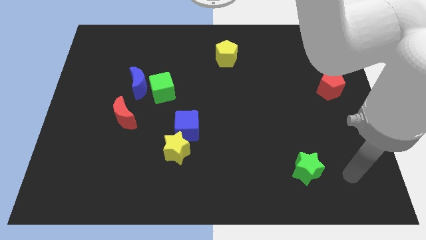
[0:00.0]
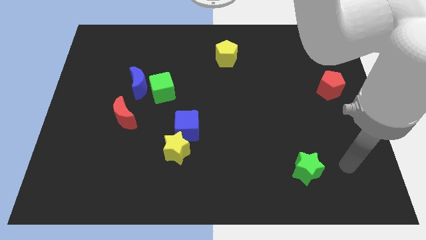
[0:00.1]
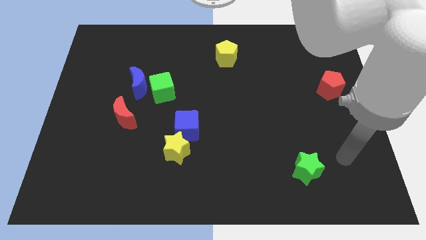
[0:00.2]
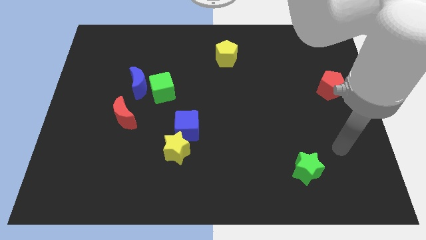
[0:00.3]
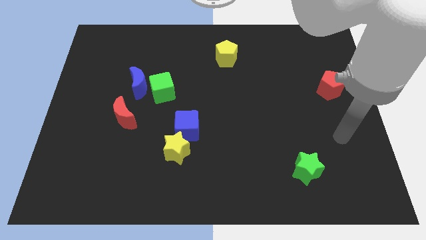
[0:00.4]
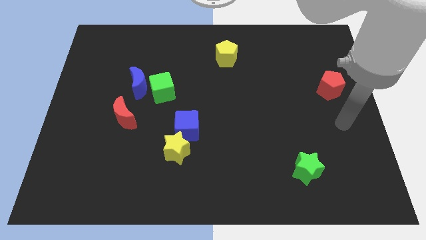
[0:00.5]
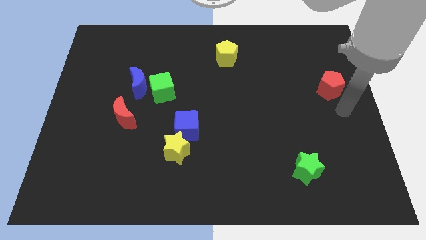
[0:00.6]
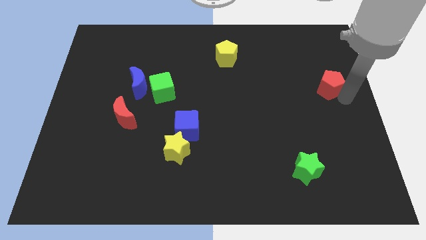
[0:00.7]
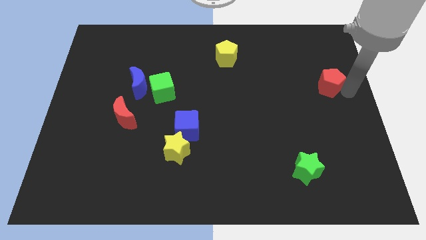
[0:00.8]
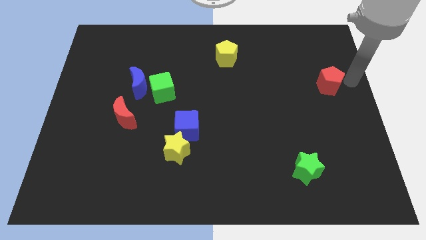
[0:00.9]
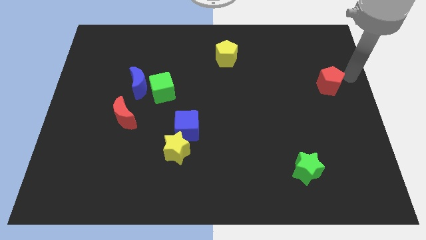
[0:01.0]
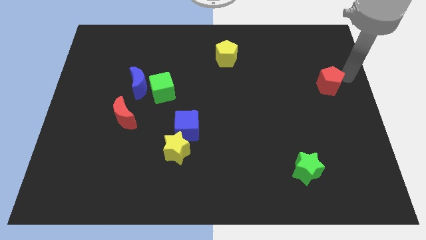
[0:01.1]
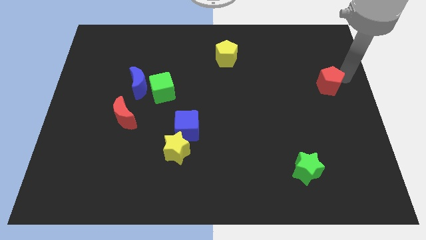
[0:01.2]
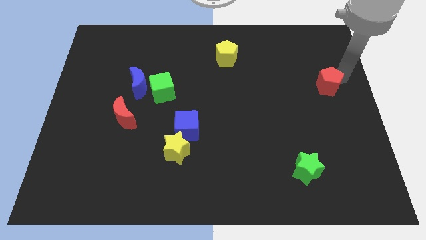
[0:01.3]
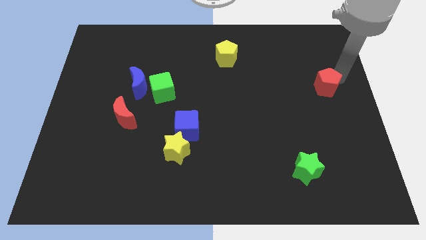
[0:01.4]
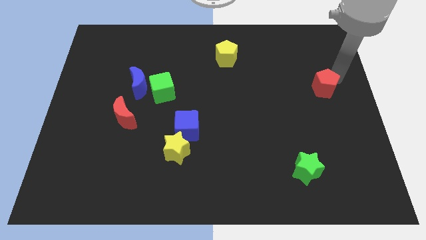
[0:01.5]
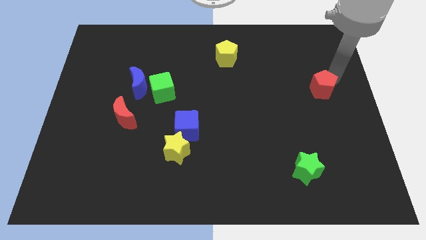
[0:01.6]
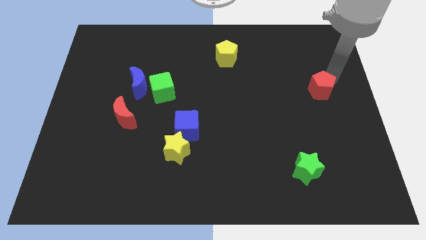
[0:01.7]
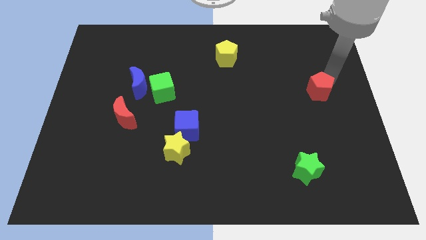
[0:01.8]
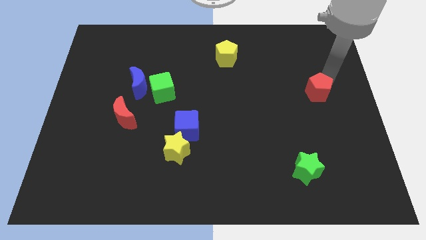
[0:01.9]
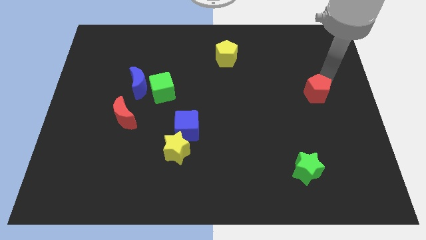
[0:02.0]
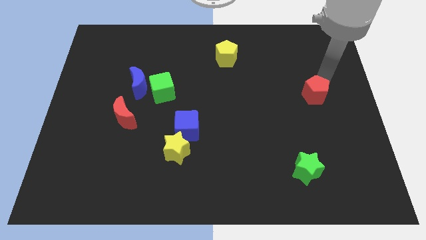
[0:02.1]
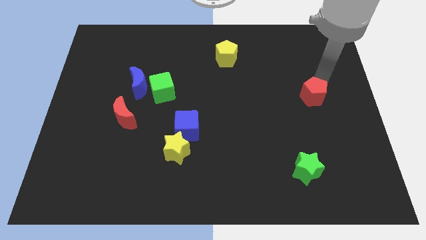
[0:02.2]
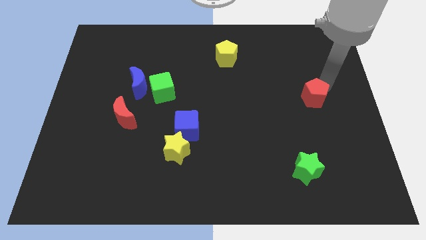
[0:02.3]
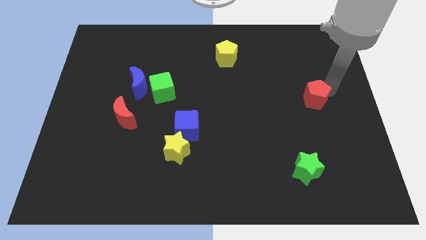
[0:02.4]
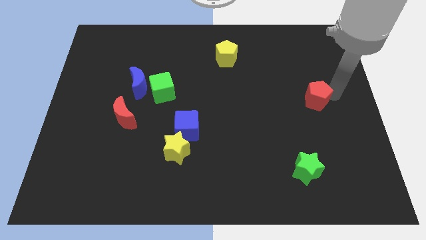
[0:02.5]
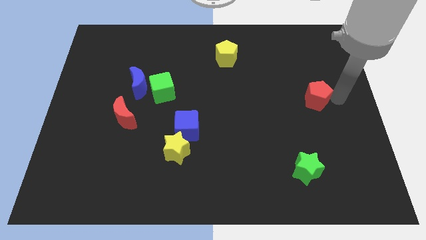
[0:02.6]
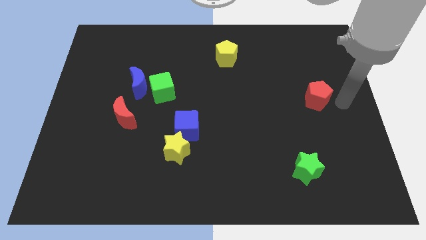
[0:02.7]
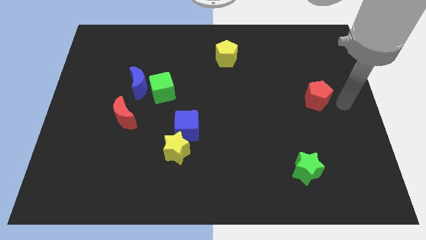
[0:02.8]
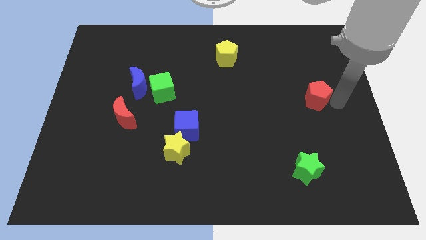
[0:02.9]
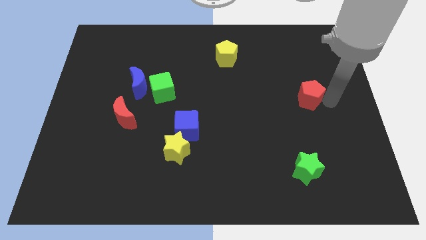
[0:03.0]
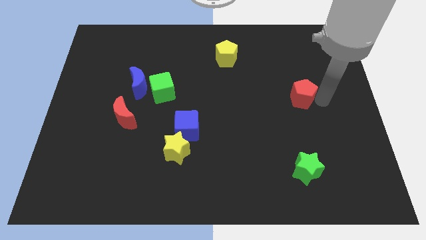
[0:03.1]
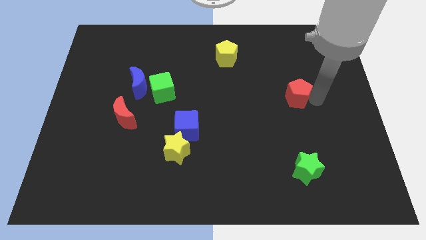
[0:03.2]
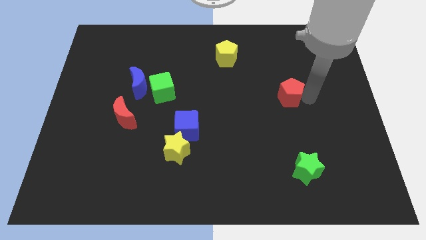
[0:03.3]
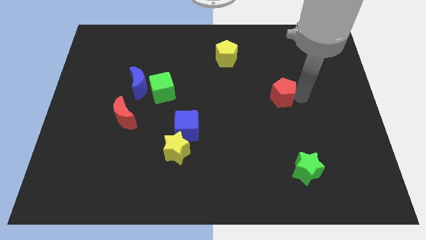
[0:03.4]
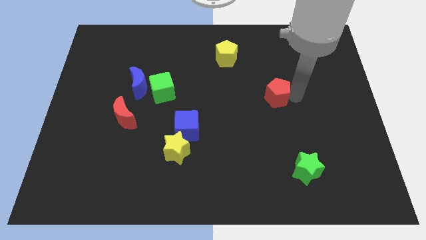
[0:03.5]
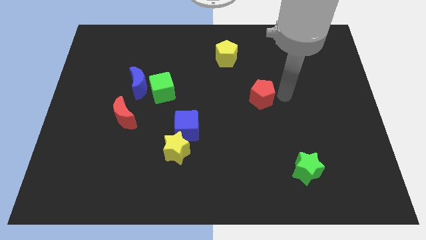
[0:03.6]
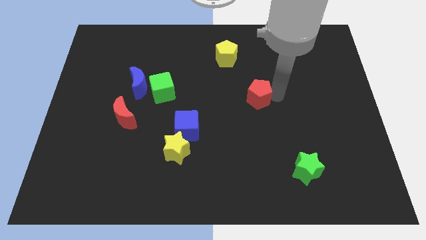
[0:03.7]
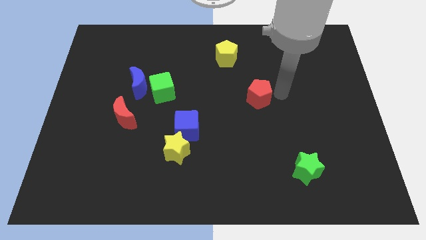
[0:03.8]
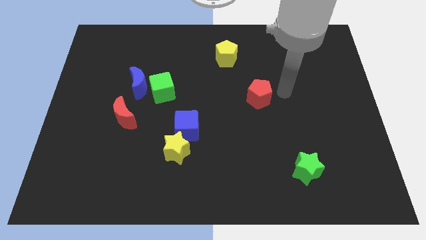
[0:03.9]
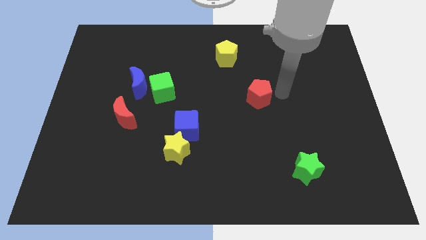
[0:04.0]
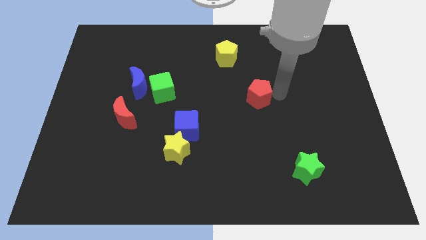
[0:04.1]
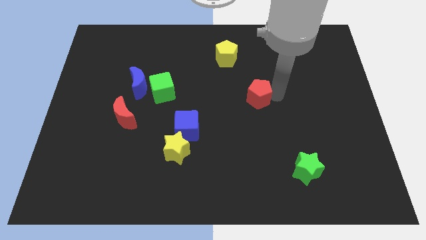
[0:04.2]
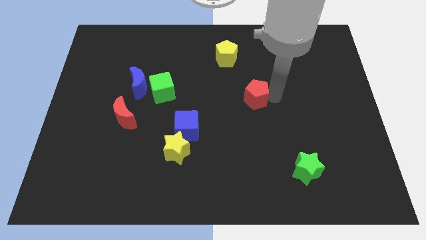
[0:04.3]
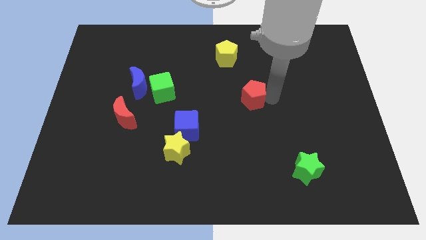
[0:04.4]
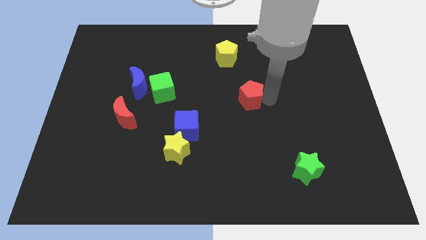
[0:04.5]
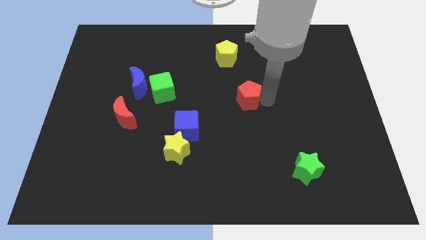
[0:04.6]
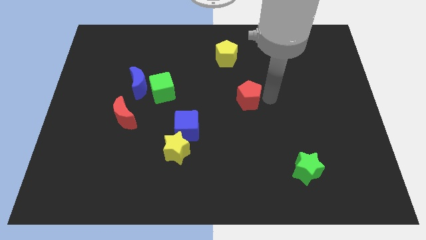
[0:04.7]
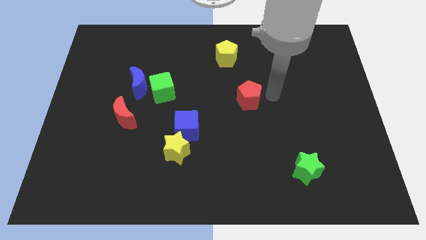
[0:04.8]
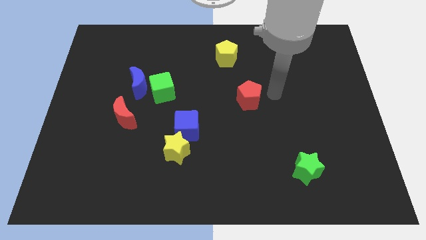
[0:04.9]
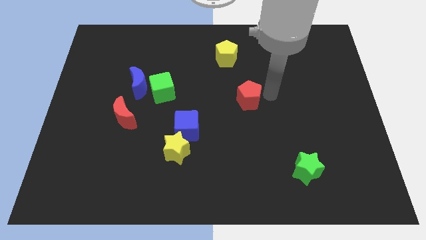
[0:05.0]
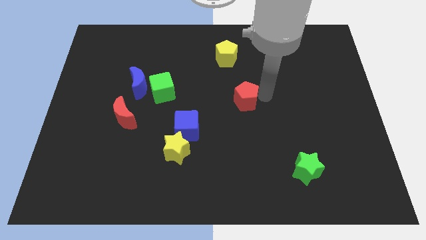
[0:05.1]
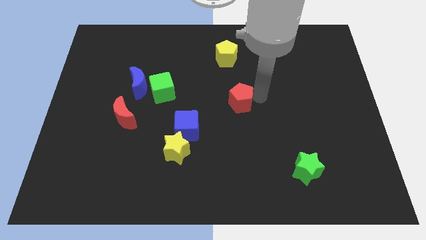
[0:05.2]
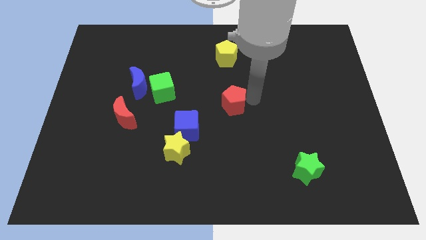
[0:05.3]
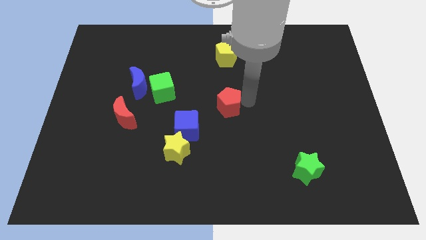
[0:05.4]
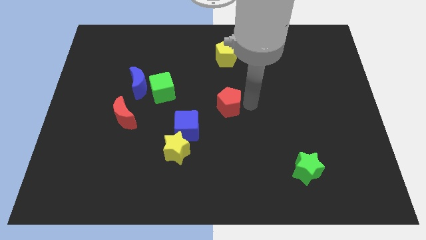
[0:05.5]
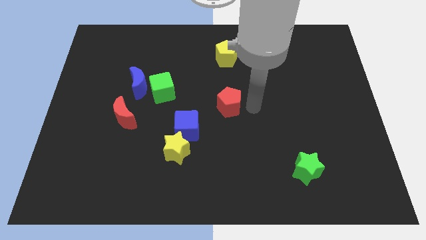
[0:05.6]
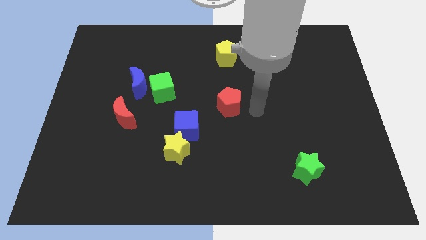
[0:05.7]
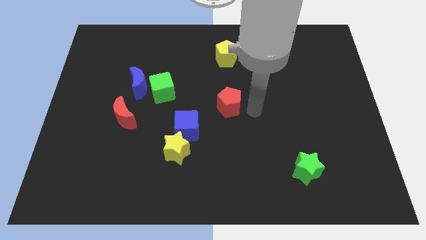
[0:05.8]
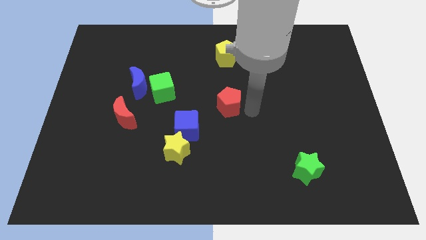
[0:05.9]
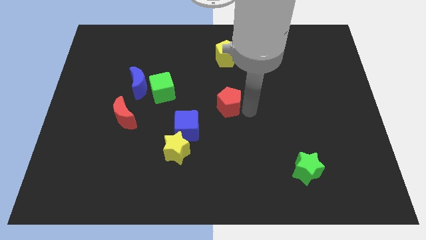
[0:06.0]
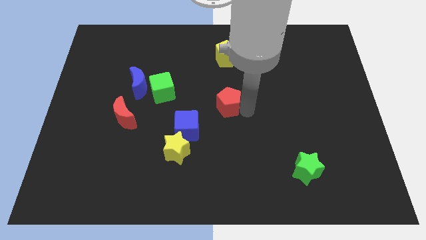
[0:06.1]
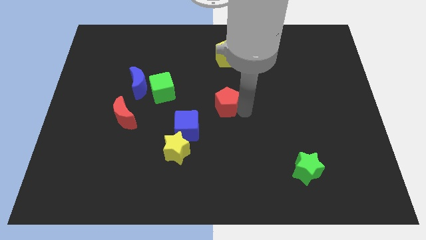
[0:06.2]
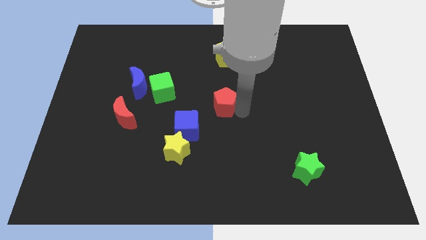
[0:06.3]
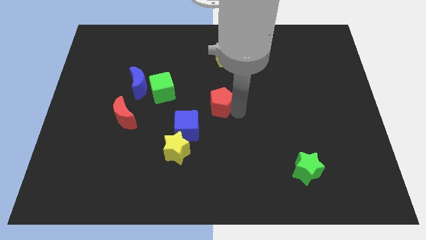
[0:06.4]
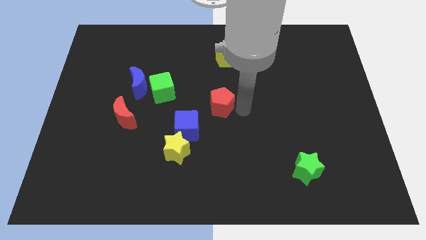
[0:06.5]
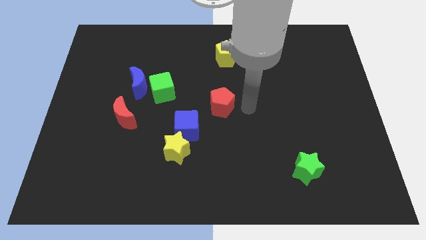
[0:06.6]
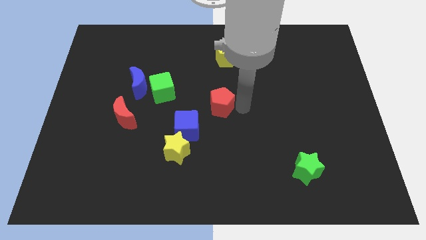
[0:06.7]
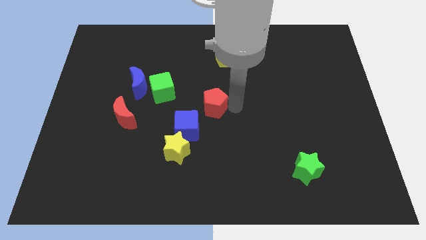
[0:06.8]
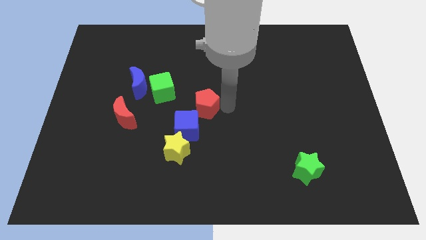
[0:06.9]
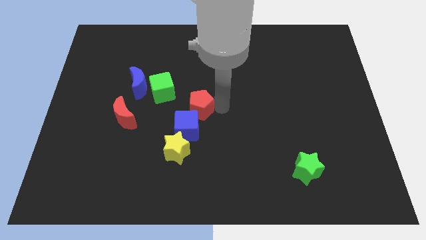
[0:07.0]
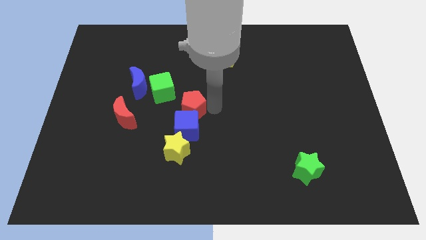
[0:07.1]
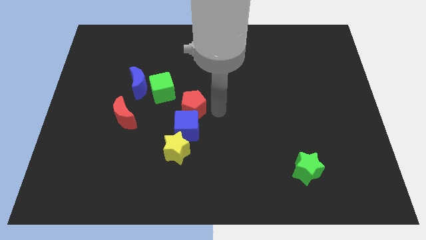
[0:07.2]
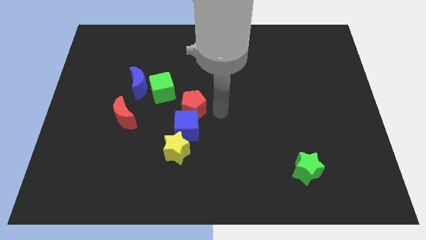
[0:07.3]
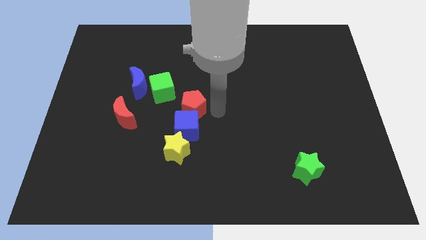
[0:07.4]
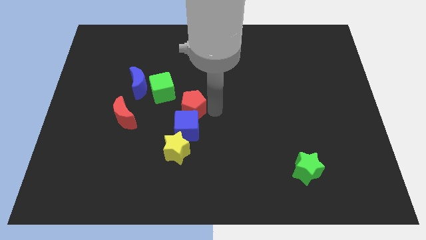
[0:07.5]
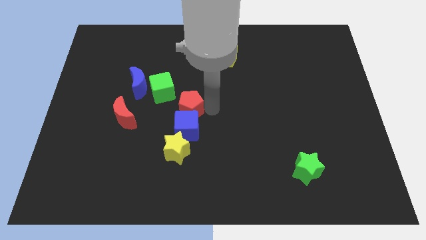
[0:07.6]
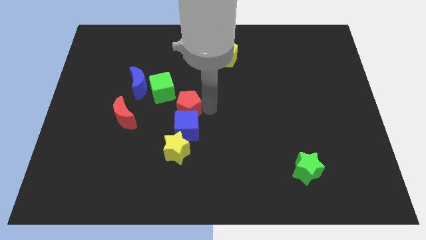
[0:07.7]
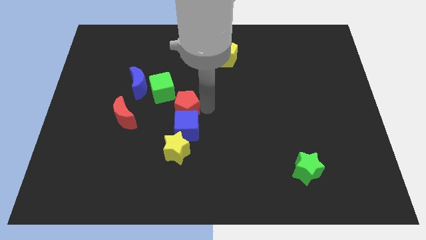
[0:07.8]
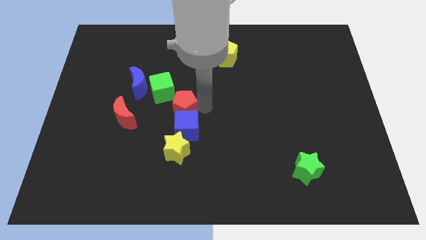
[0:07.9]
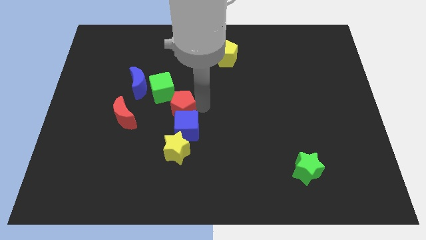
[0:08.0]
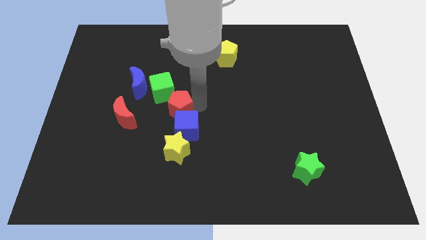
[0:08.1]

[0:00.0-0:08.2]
push the red pentagon to the bottom side of the green cube

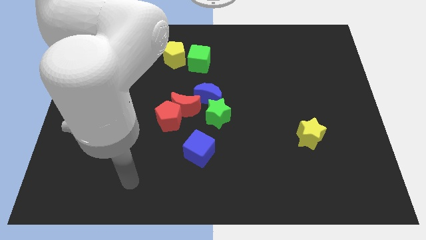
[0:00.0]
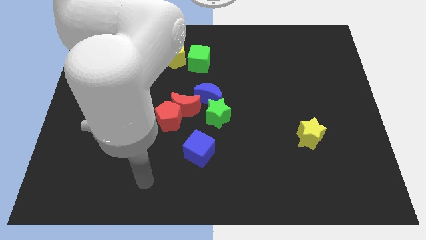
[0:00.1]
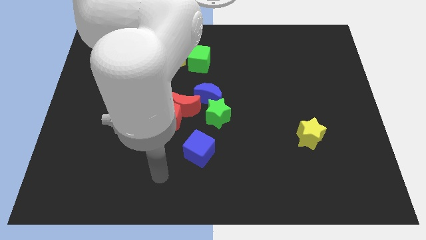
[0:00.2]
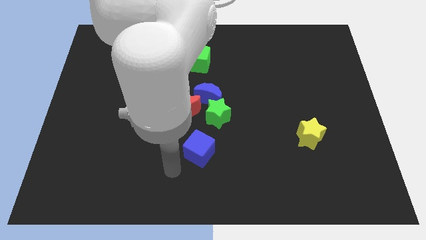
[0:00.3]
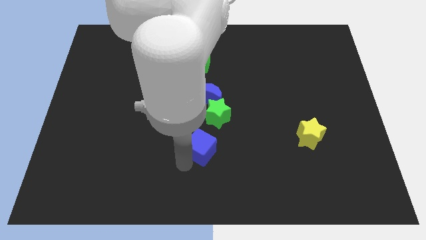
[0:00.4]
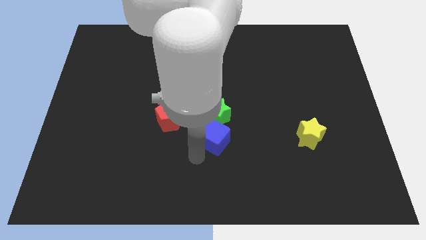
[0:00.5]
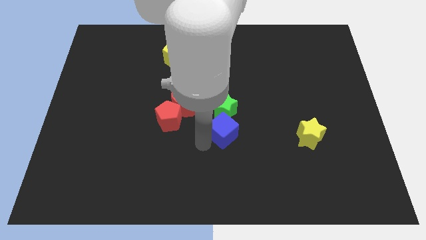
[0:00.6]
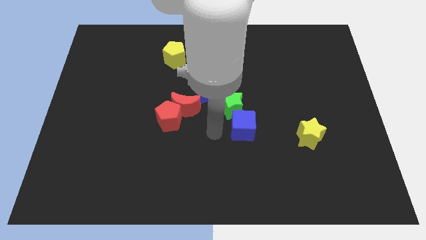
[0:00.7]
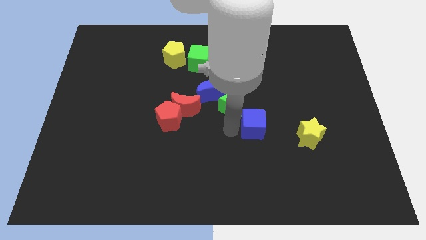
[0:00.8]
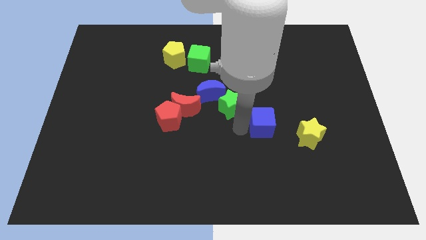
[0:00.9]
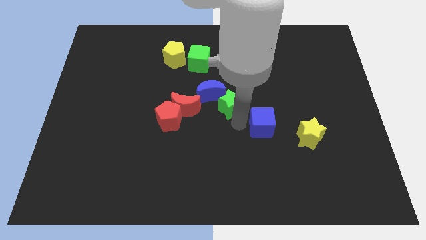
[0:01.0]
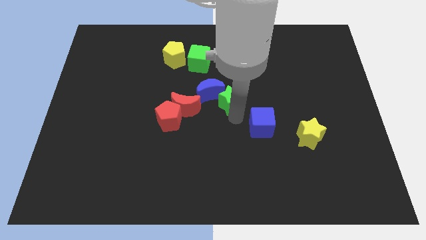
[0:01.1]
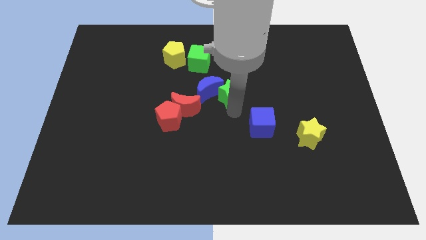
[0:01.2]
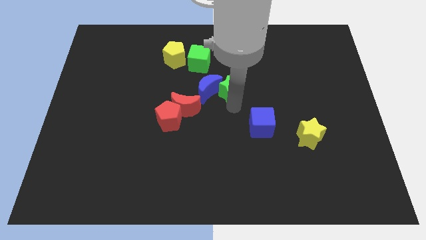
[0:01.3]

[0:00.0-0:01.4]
put the green star diagonally down and to the right of the green cube
